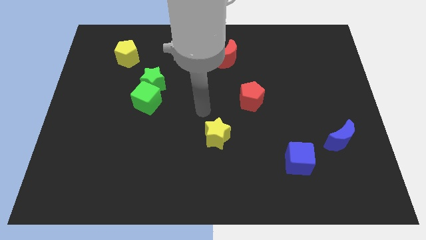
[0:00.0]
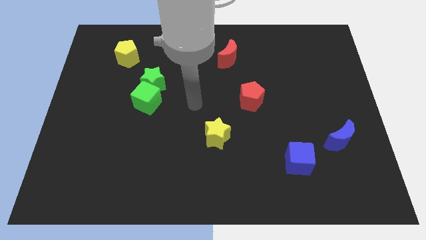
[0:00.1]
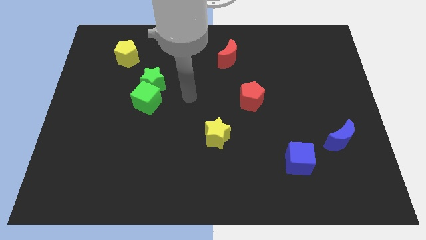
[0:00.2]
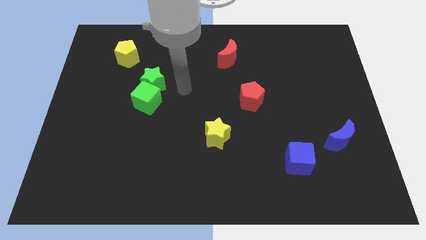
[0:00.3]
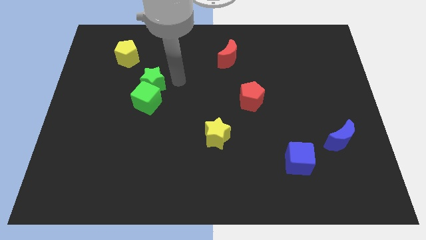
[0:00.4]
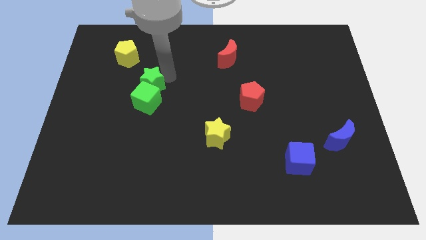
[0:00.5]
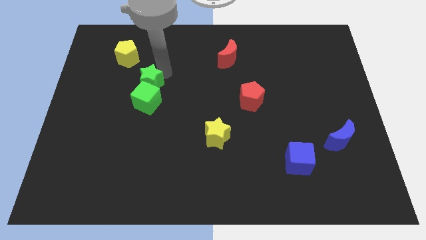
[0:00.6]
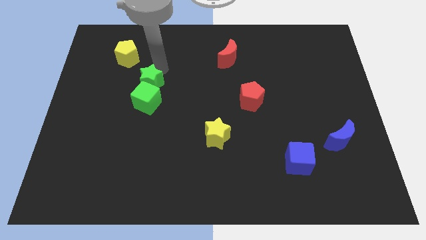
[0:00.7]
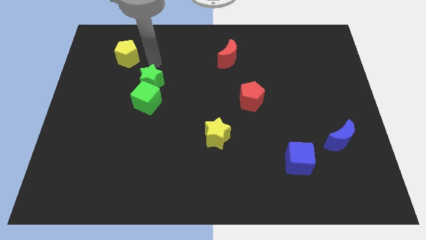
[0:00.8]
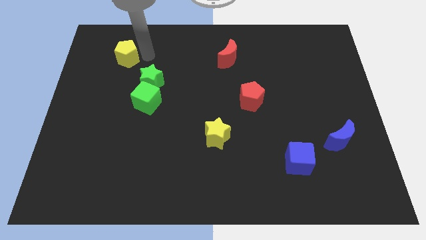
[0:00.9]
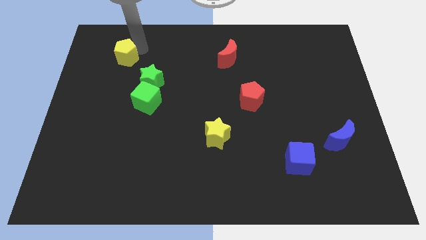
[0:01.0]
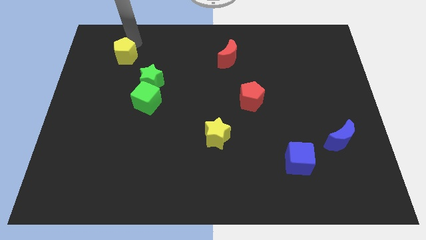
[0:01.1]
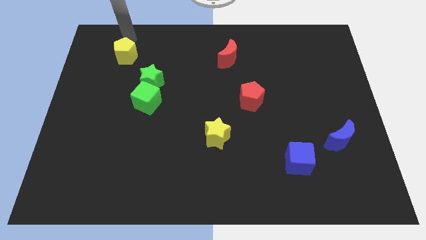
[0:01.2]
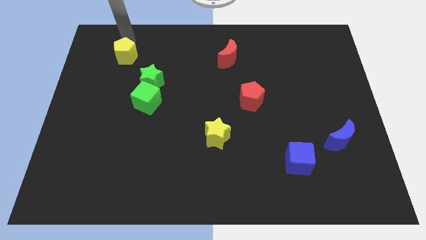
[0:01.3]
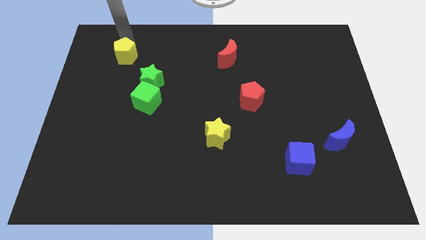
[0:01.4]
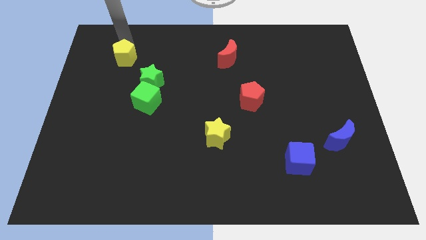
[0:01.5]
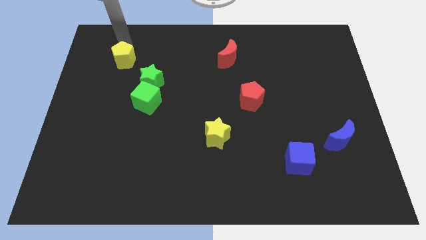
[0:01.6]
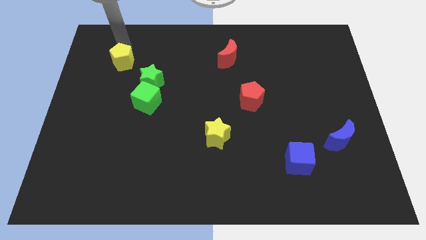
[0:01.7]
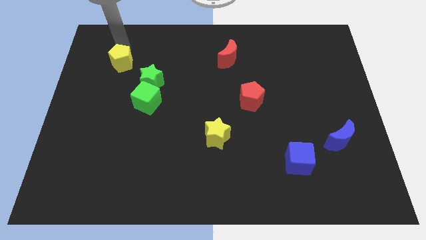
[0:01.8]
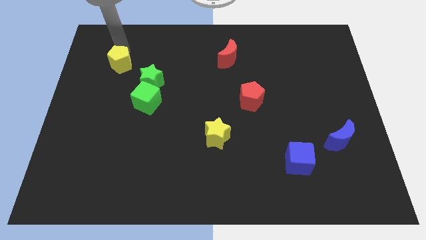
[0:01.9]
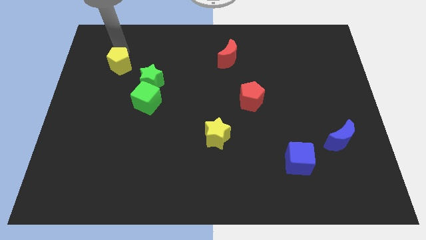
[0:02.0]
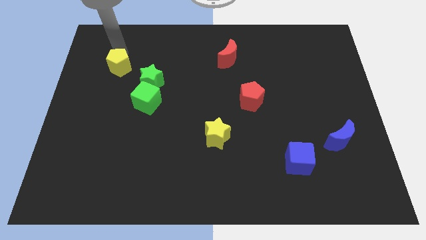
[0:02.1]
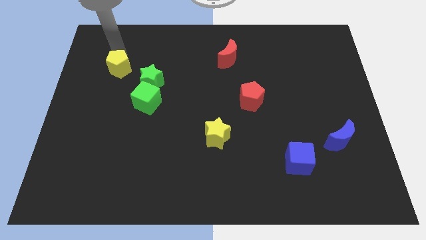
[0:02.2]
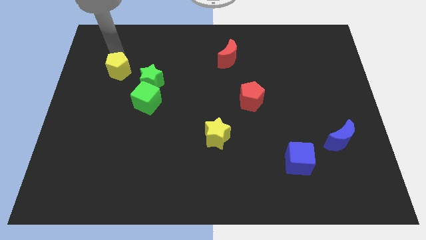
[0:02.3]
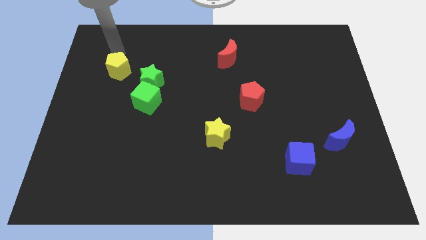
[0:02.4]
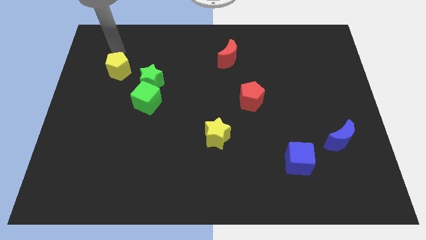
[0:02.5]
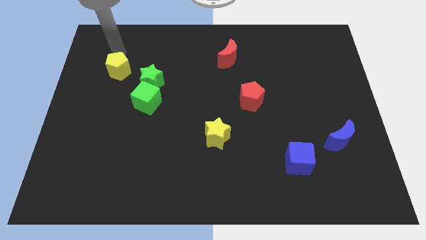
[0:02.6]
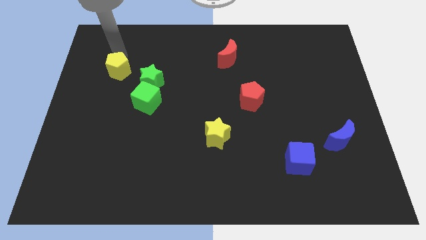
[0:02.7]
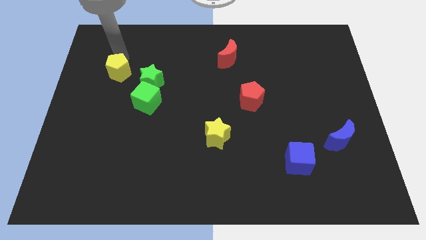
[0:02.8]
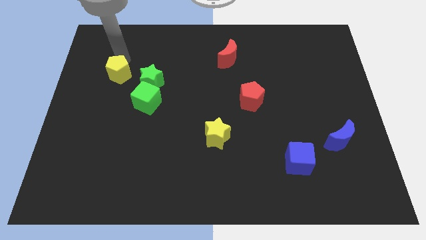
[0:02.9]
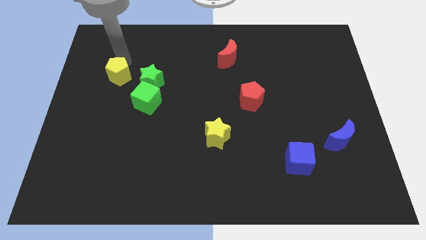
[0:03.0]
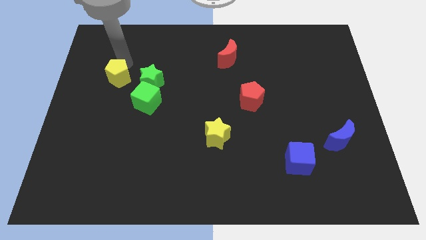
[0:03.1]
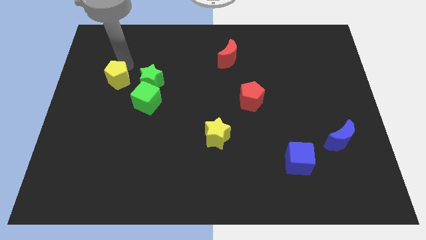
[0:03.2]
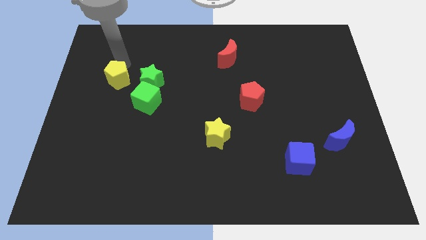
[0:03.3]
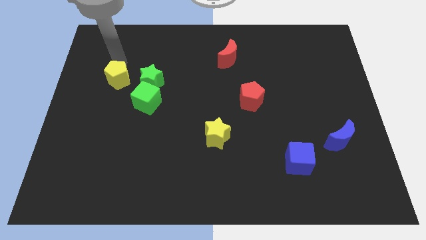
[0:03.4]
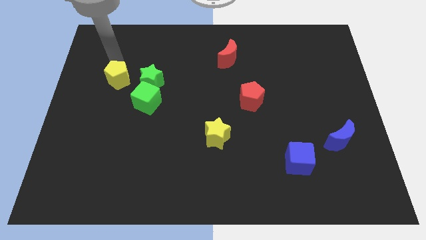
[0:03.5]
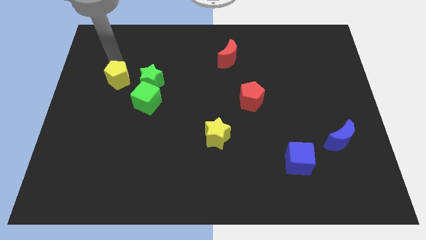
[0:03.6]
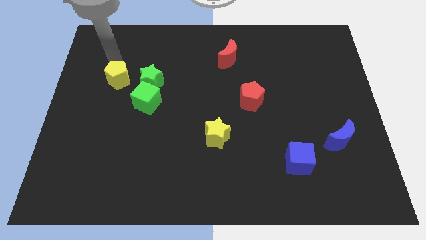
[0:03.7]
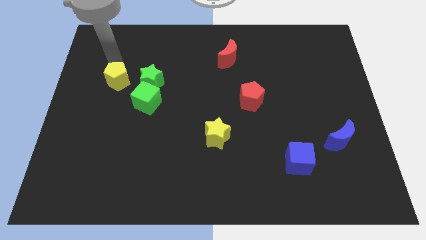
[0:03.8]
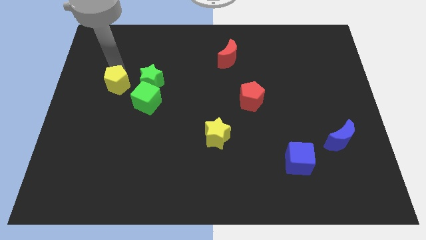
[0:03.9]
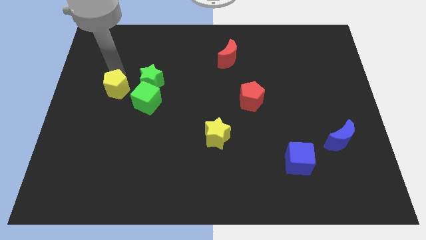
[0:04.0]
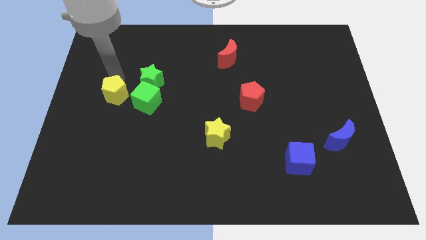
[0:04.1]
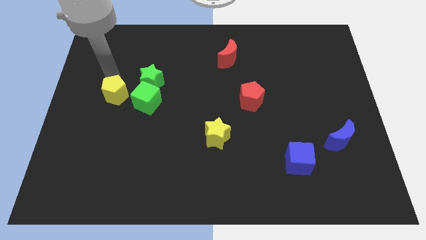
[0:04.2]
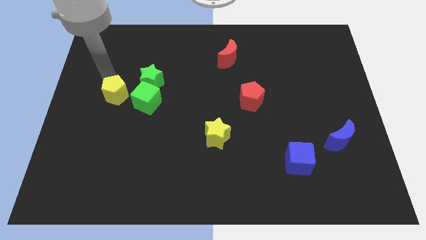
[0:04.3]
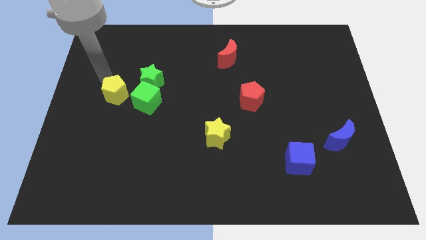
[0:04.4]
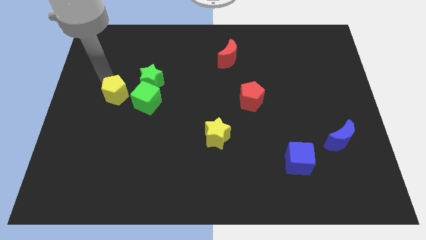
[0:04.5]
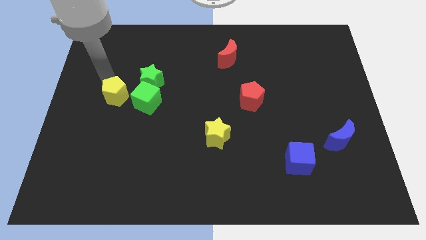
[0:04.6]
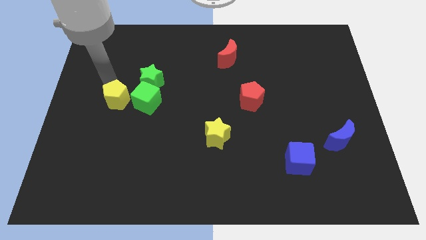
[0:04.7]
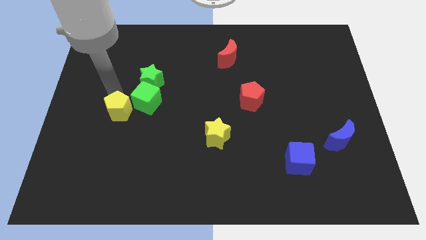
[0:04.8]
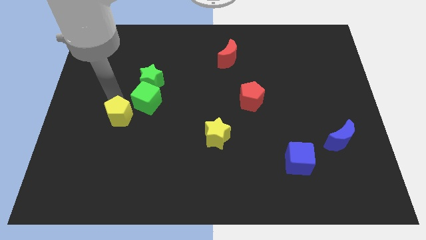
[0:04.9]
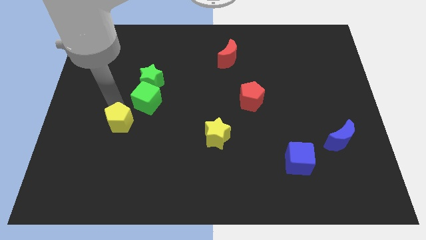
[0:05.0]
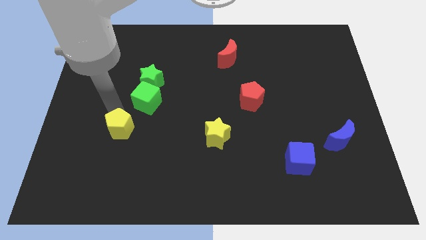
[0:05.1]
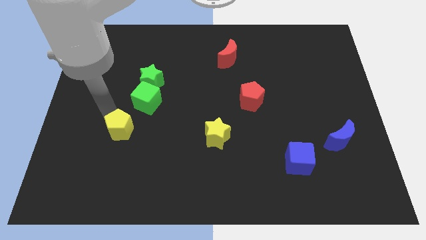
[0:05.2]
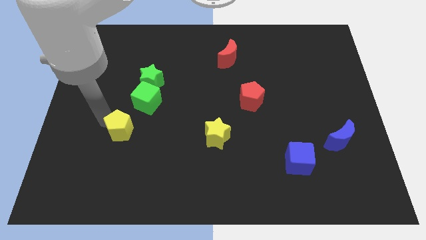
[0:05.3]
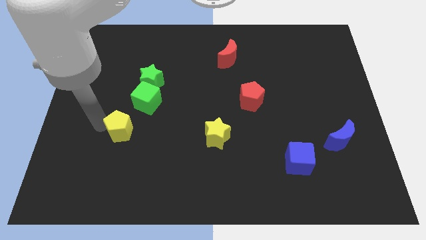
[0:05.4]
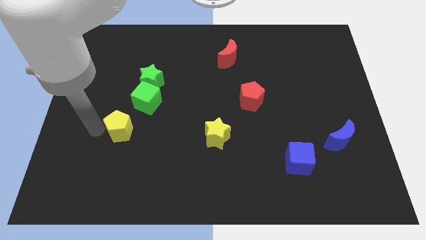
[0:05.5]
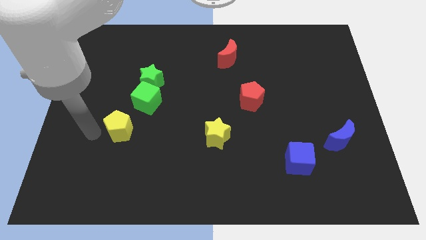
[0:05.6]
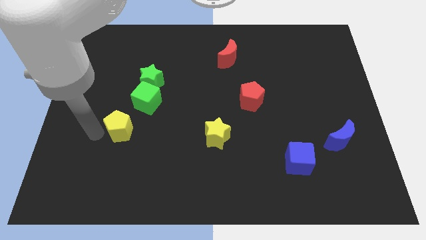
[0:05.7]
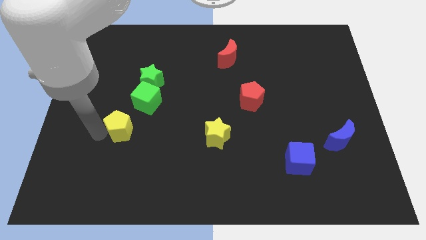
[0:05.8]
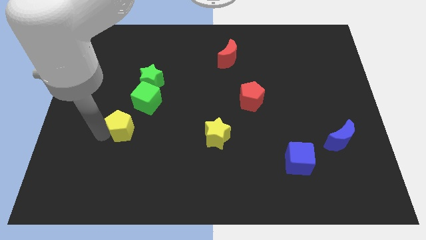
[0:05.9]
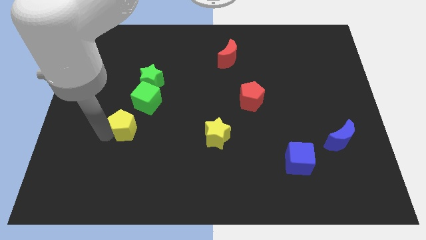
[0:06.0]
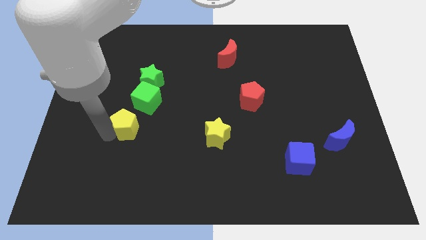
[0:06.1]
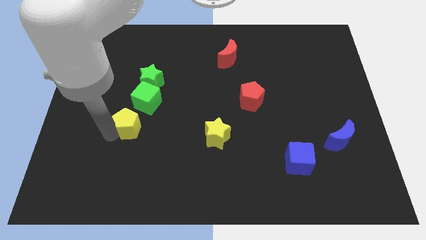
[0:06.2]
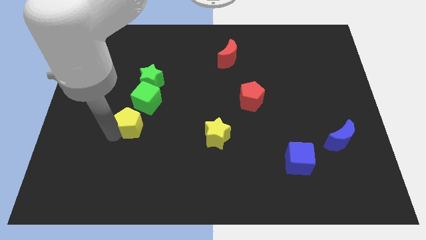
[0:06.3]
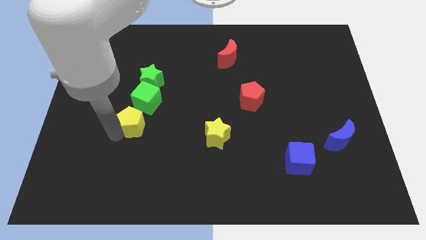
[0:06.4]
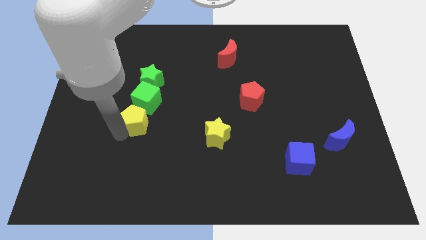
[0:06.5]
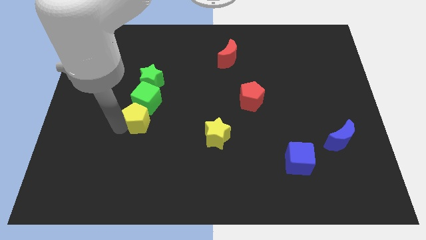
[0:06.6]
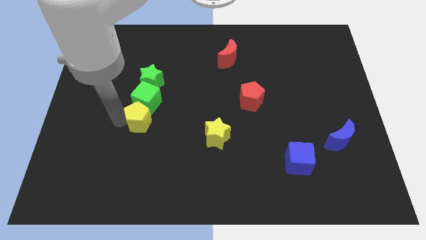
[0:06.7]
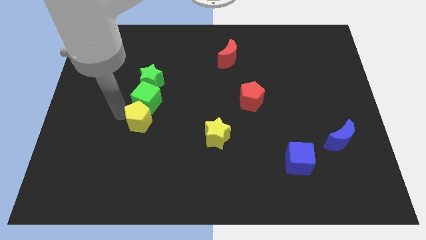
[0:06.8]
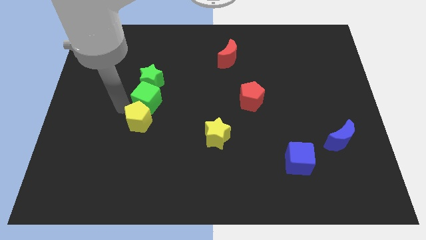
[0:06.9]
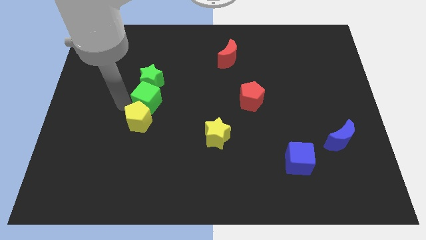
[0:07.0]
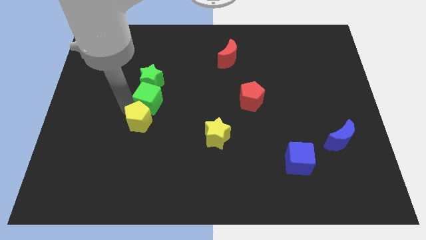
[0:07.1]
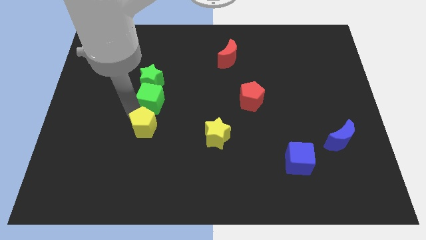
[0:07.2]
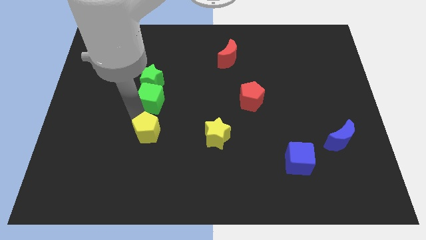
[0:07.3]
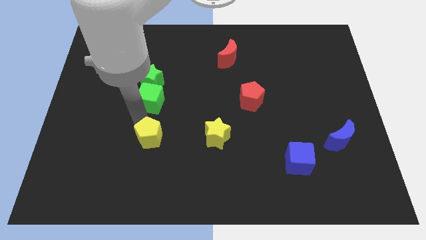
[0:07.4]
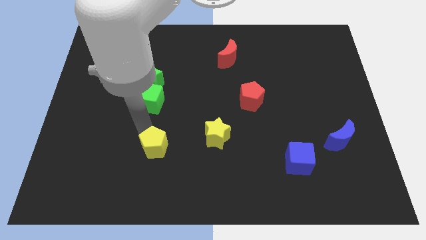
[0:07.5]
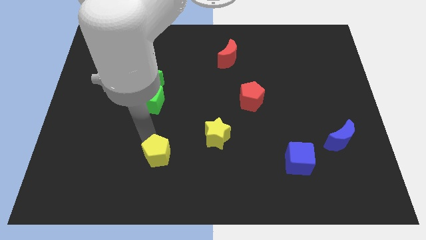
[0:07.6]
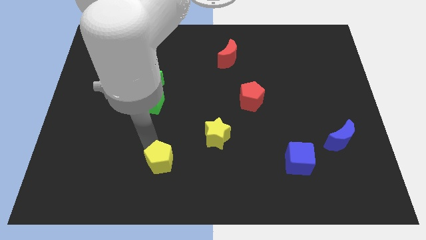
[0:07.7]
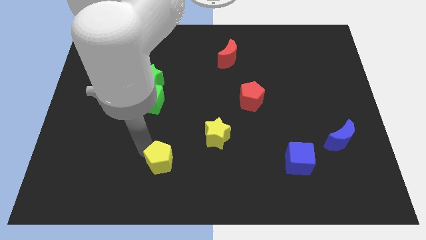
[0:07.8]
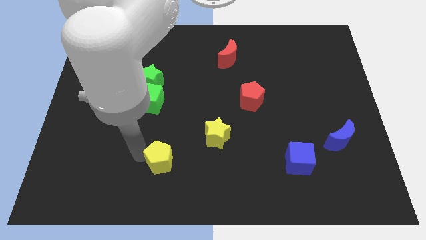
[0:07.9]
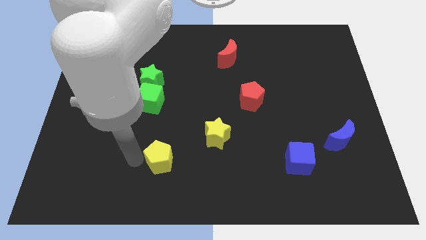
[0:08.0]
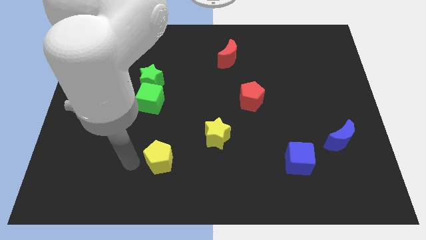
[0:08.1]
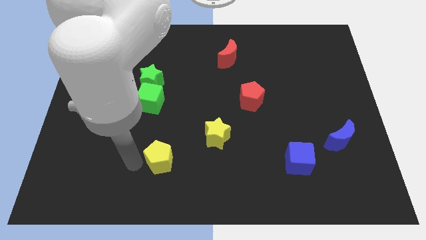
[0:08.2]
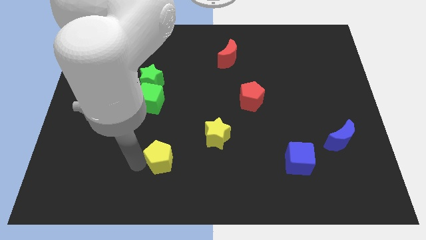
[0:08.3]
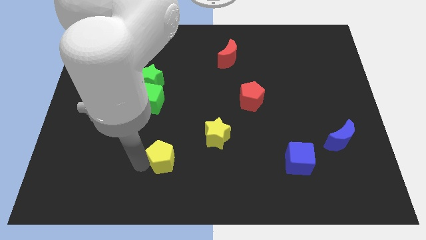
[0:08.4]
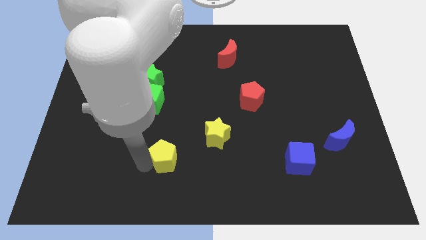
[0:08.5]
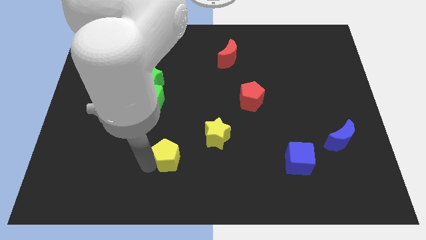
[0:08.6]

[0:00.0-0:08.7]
slide the yellow pentagon to the bottom left side of the yellow star
